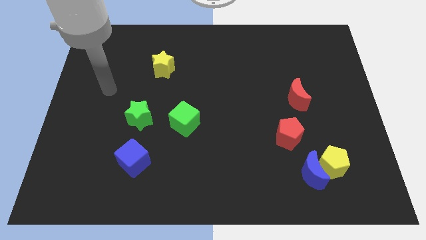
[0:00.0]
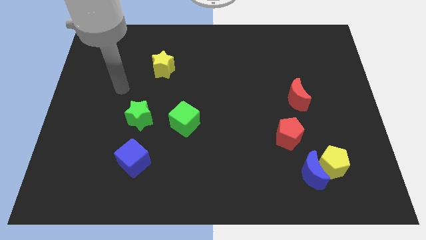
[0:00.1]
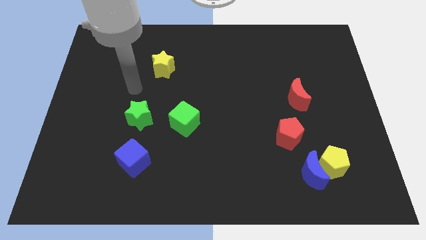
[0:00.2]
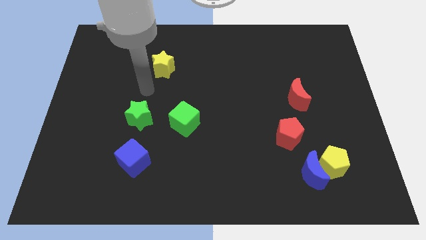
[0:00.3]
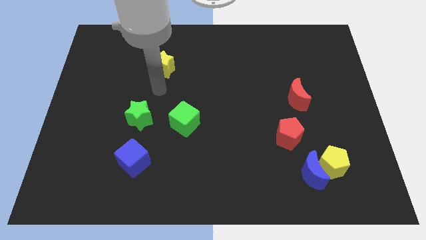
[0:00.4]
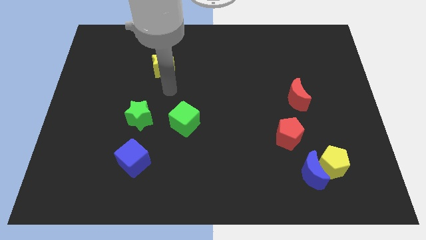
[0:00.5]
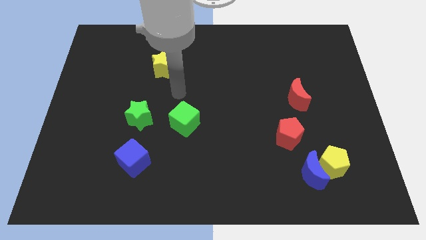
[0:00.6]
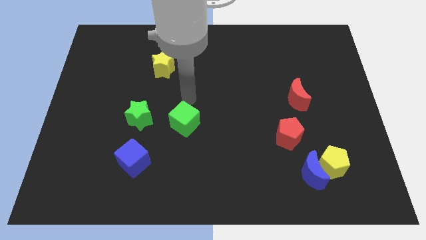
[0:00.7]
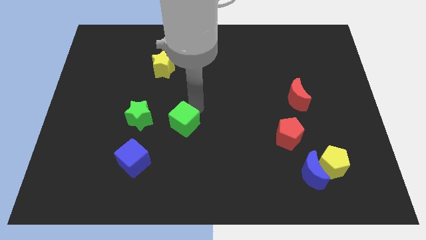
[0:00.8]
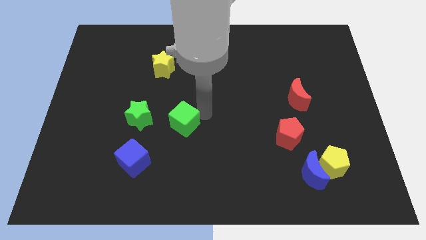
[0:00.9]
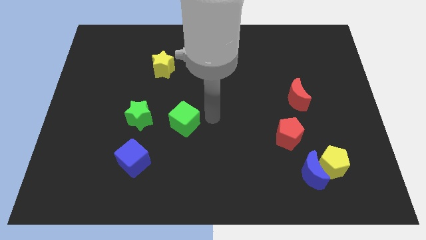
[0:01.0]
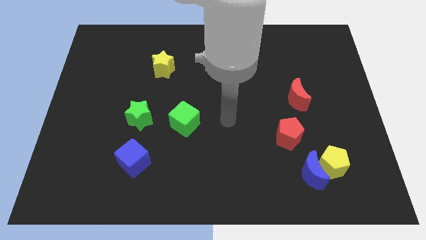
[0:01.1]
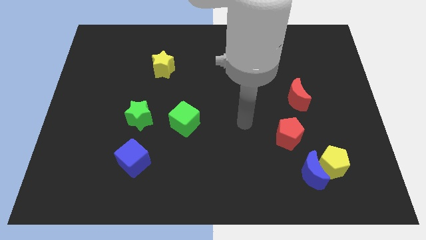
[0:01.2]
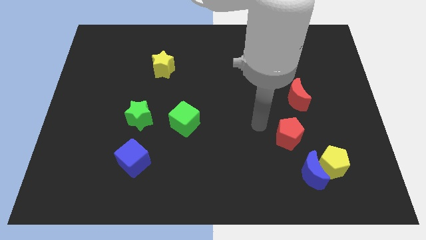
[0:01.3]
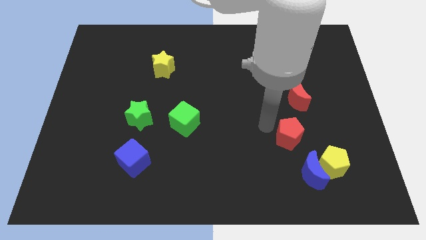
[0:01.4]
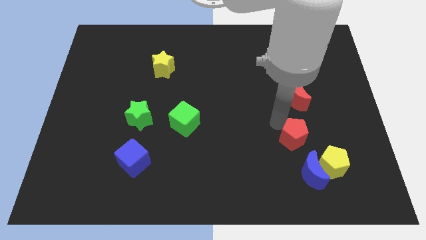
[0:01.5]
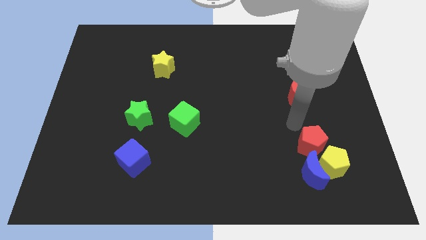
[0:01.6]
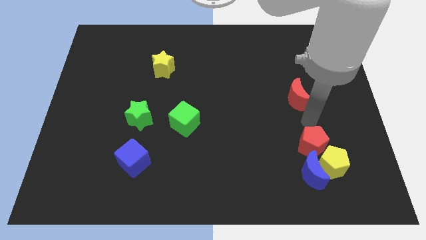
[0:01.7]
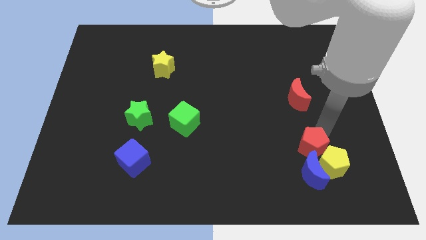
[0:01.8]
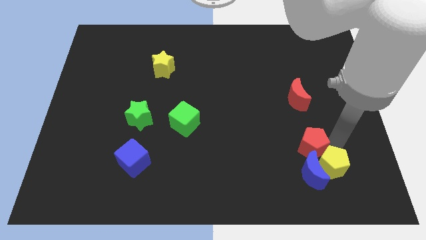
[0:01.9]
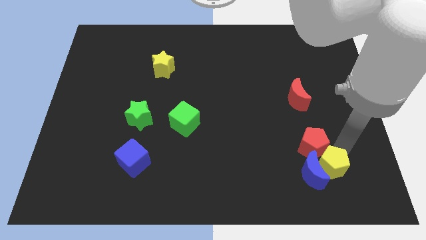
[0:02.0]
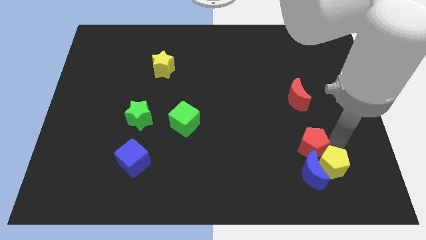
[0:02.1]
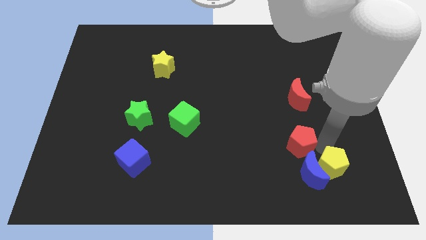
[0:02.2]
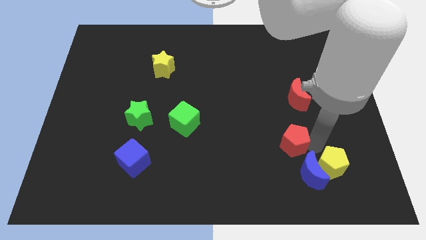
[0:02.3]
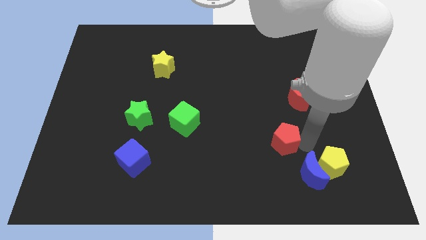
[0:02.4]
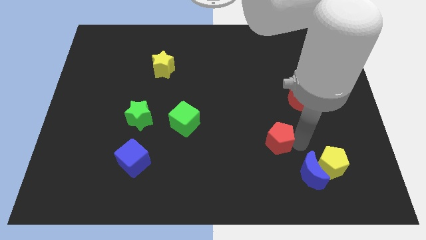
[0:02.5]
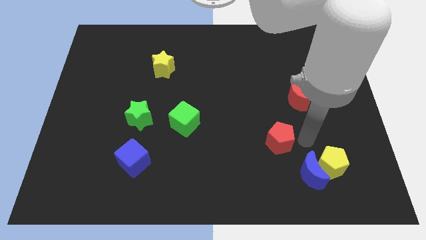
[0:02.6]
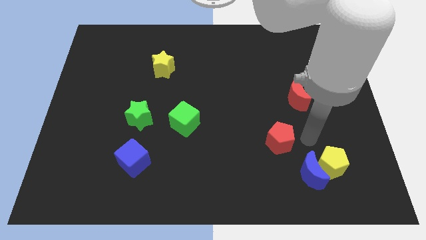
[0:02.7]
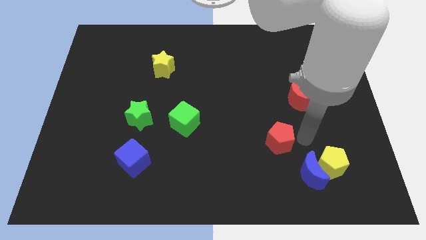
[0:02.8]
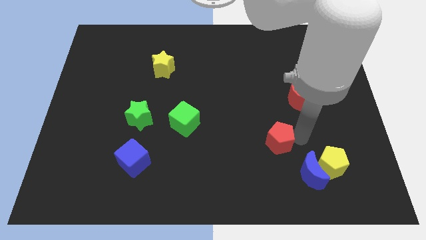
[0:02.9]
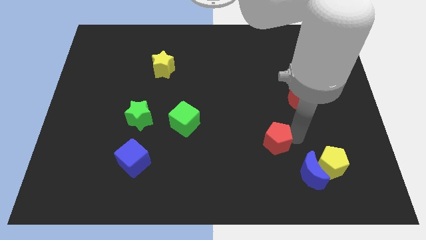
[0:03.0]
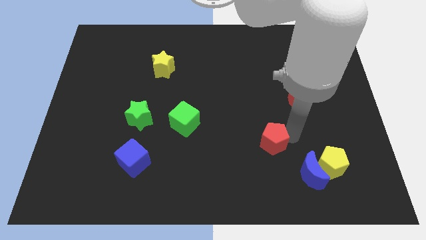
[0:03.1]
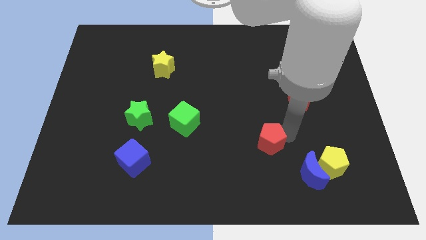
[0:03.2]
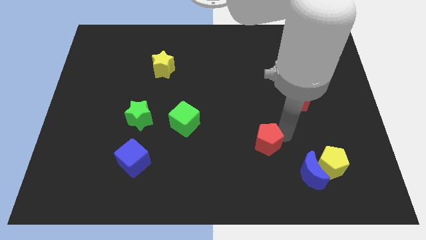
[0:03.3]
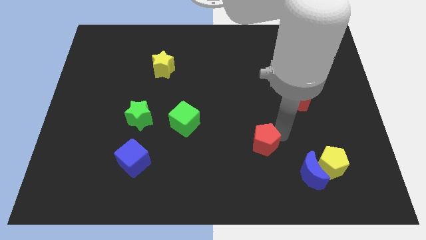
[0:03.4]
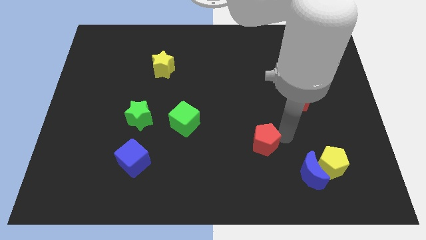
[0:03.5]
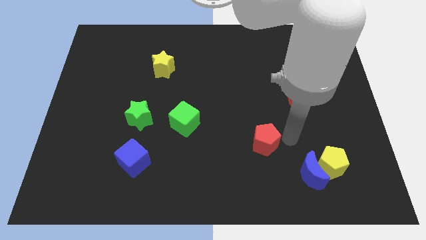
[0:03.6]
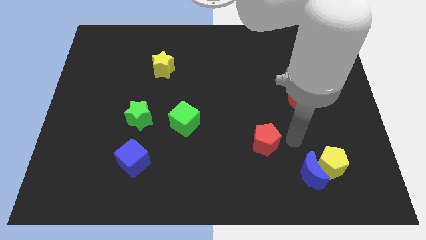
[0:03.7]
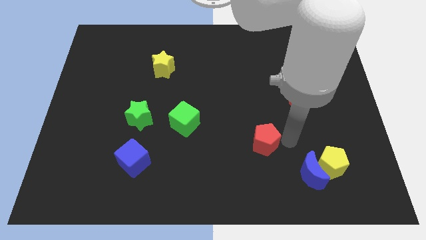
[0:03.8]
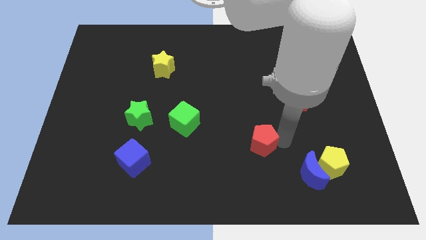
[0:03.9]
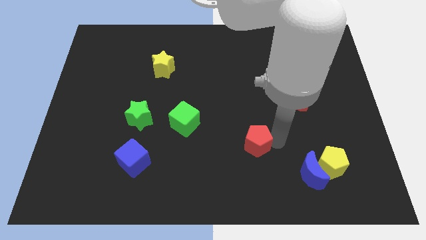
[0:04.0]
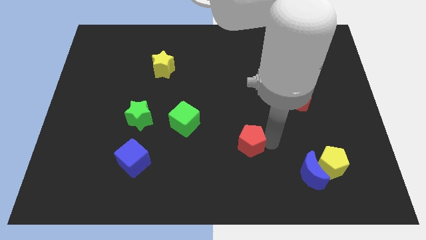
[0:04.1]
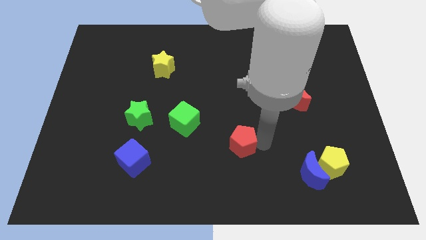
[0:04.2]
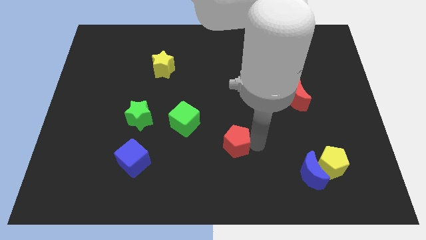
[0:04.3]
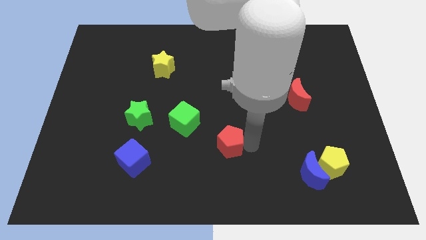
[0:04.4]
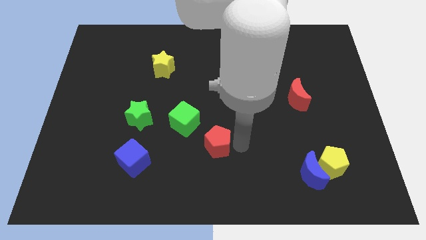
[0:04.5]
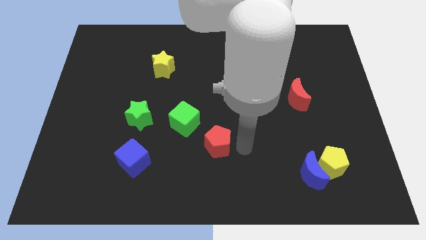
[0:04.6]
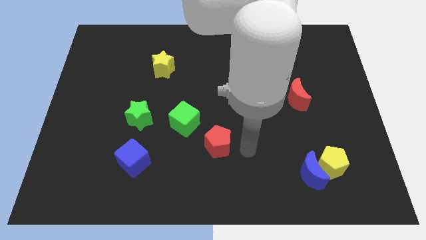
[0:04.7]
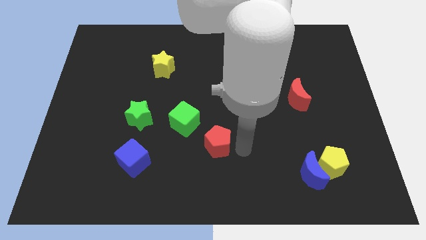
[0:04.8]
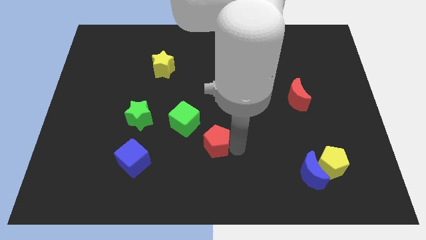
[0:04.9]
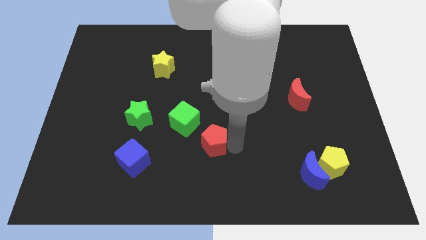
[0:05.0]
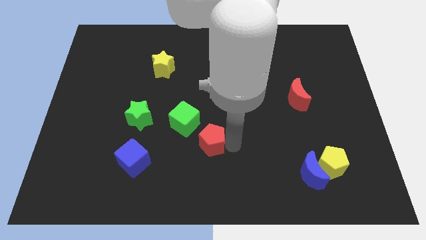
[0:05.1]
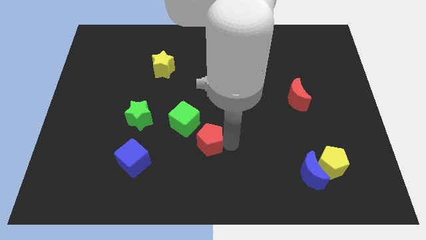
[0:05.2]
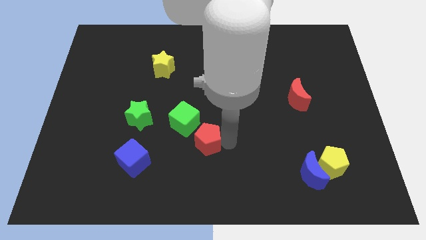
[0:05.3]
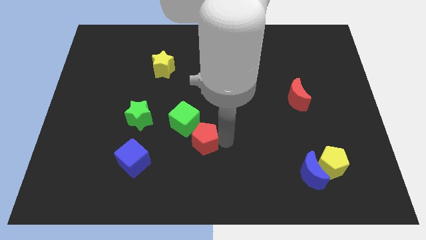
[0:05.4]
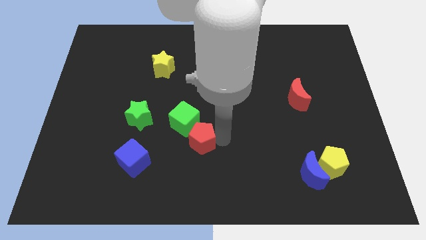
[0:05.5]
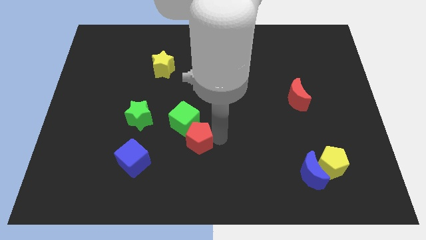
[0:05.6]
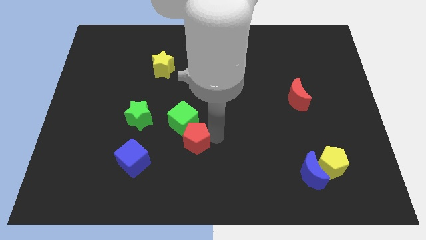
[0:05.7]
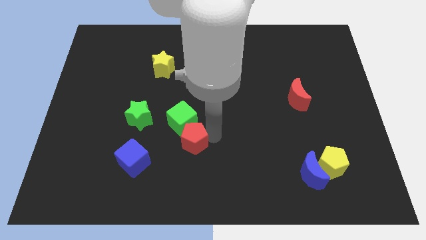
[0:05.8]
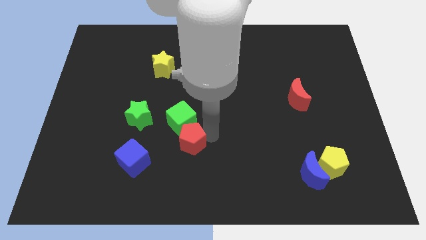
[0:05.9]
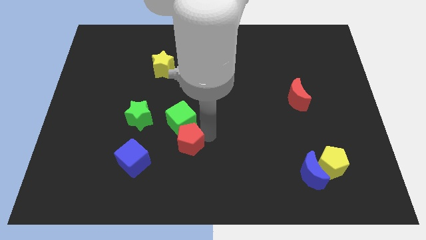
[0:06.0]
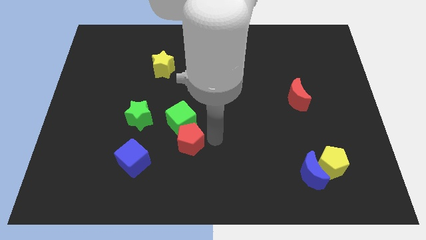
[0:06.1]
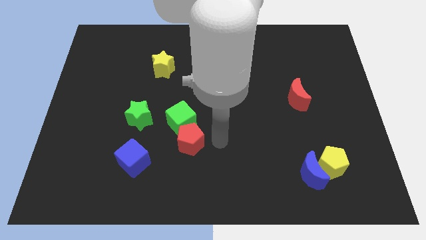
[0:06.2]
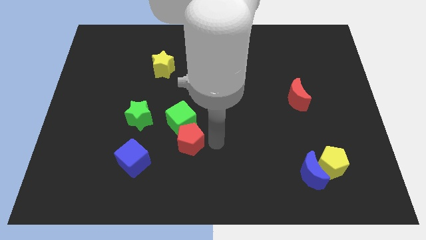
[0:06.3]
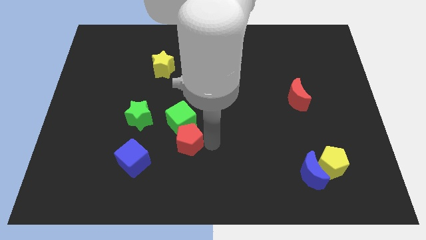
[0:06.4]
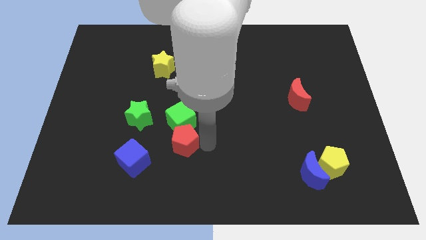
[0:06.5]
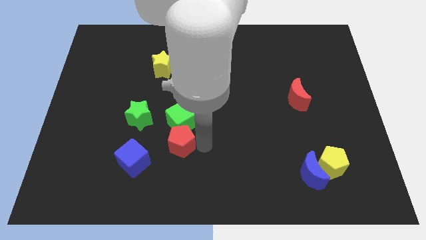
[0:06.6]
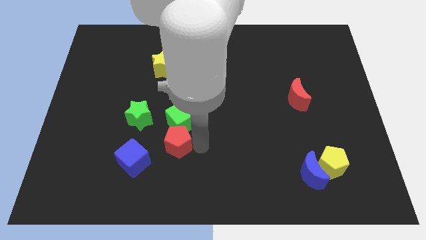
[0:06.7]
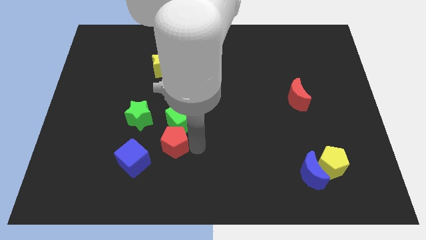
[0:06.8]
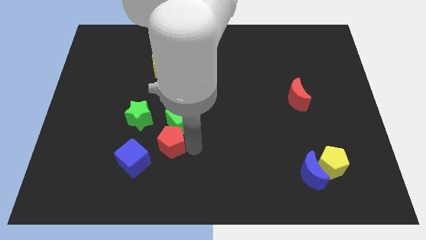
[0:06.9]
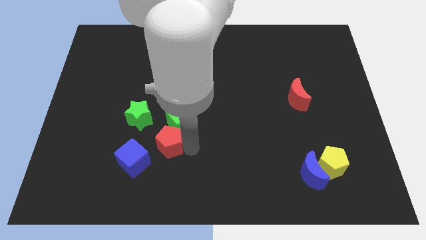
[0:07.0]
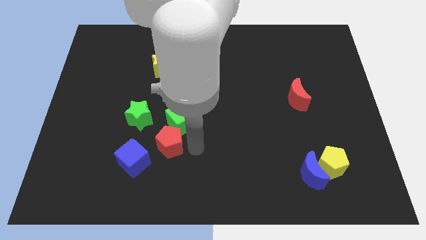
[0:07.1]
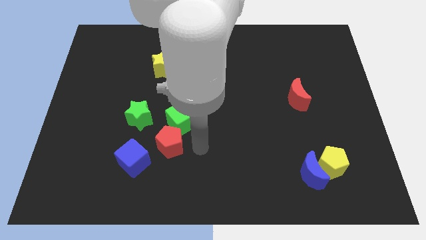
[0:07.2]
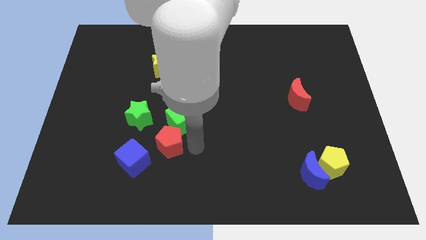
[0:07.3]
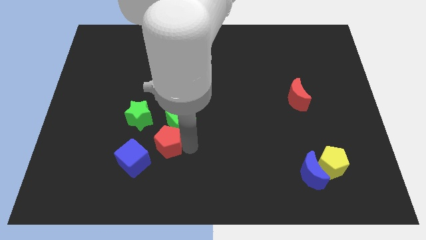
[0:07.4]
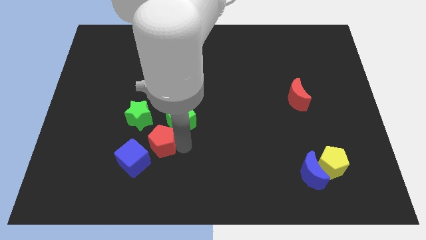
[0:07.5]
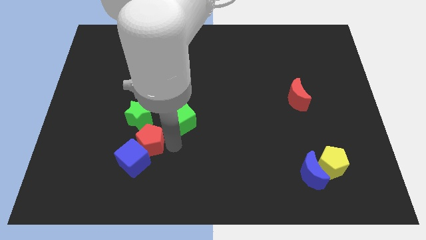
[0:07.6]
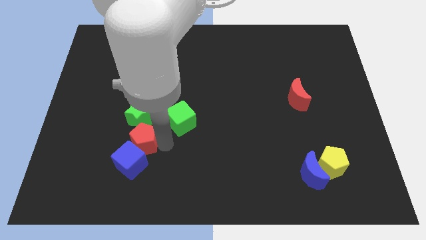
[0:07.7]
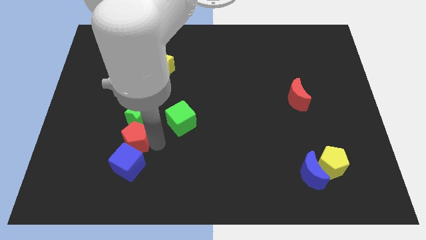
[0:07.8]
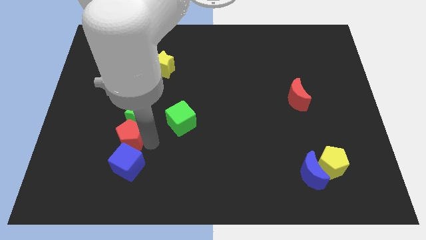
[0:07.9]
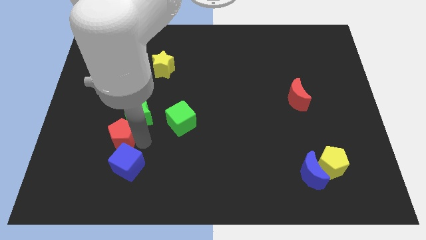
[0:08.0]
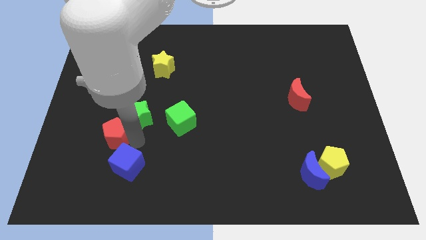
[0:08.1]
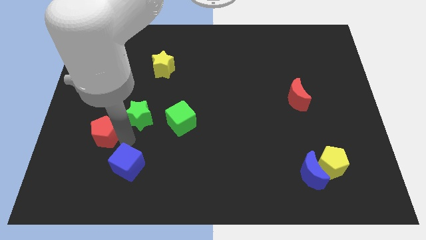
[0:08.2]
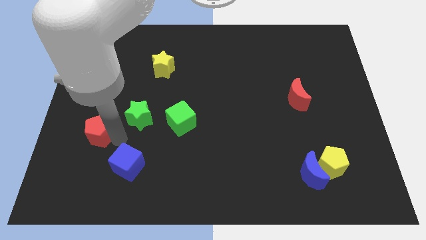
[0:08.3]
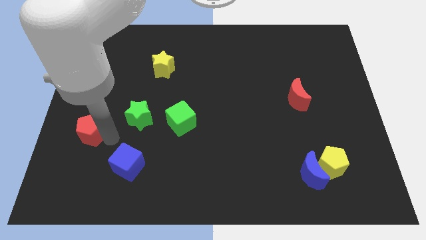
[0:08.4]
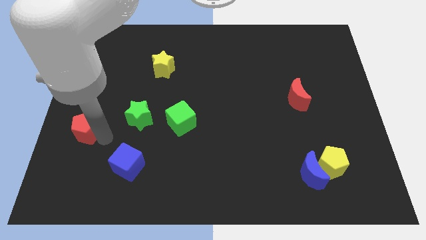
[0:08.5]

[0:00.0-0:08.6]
put the red pentagon to the left side
